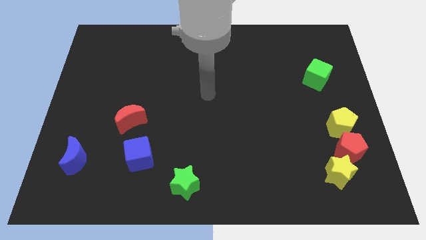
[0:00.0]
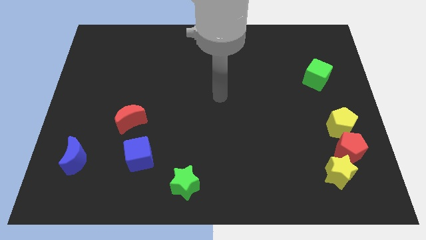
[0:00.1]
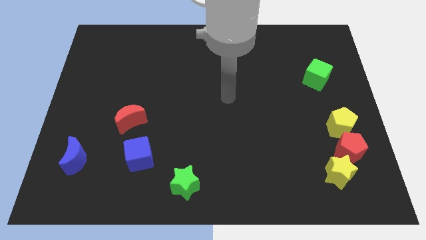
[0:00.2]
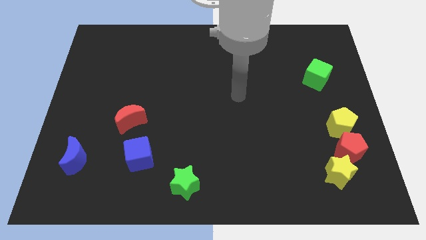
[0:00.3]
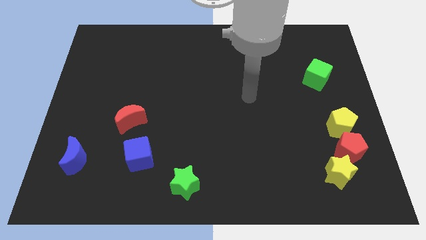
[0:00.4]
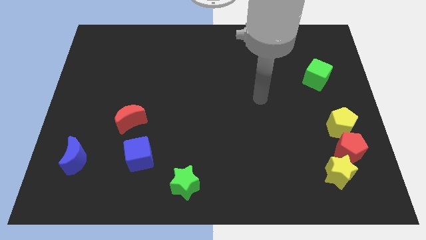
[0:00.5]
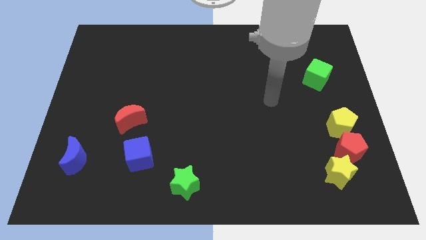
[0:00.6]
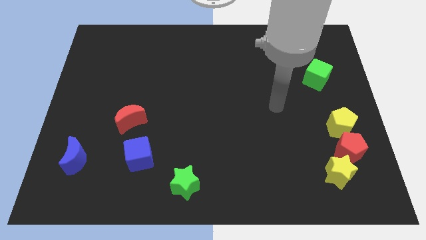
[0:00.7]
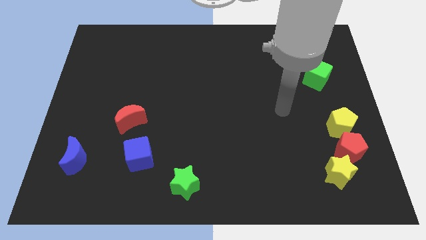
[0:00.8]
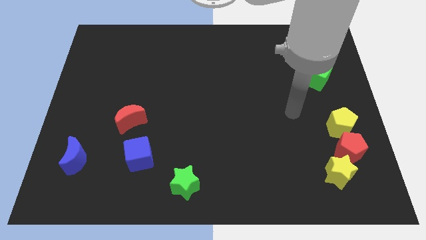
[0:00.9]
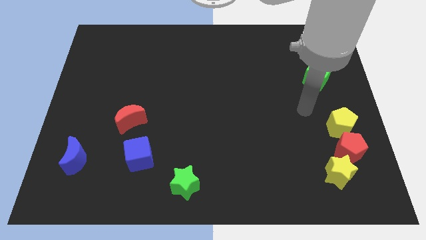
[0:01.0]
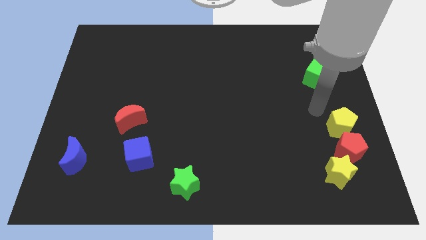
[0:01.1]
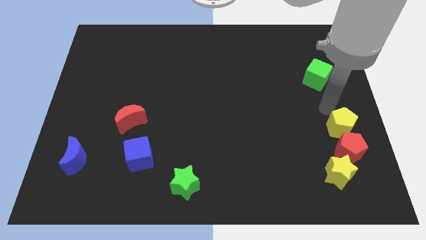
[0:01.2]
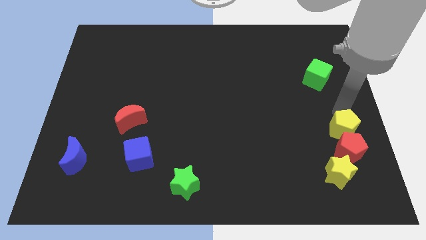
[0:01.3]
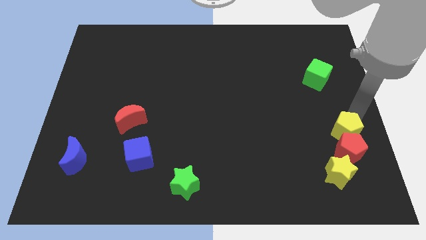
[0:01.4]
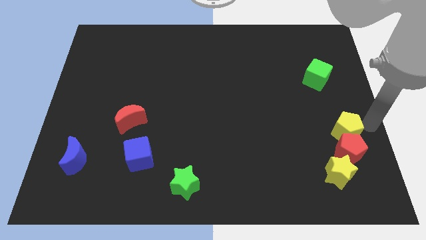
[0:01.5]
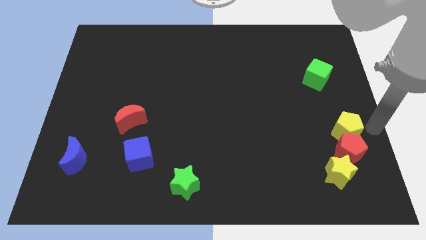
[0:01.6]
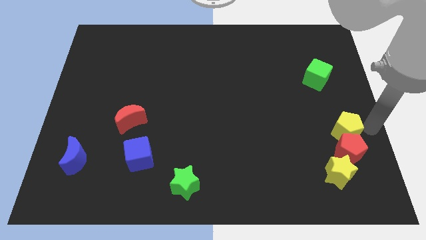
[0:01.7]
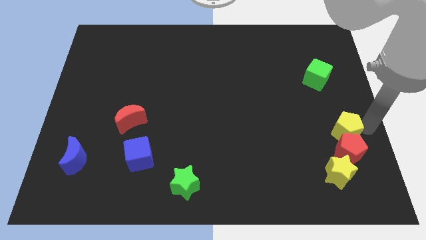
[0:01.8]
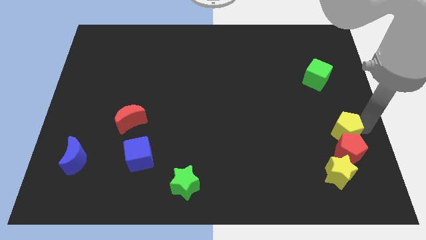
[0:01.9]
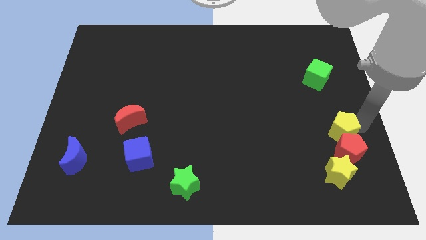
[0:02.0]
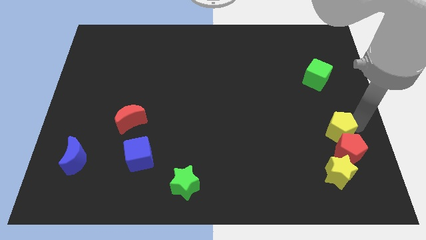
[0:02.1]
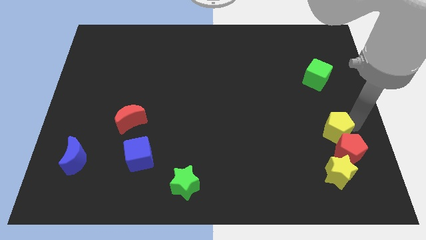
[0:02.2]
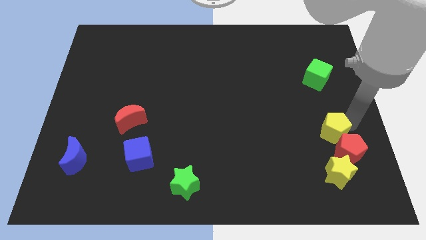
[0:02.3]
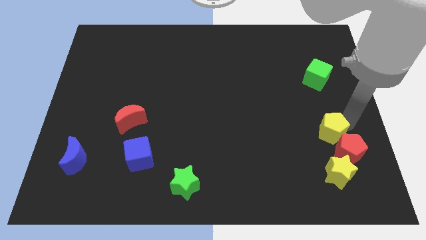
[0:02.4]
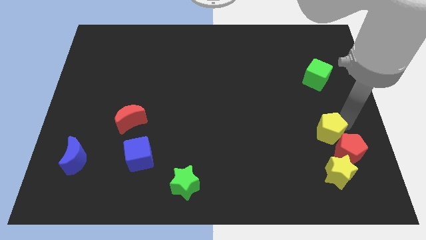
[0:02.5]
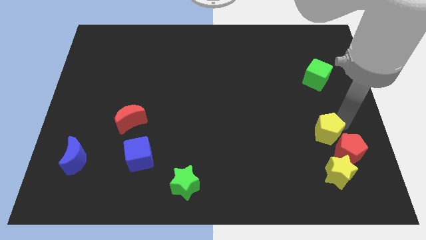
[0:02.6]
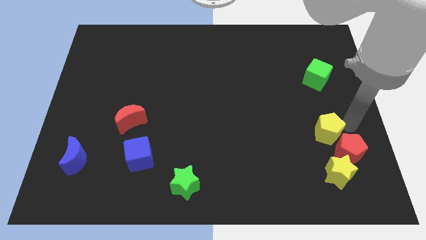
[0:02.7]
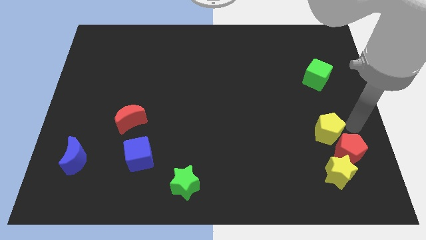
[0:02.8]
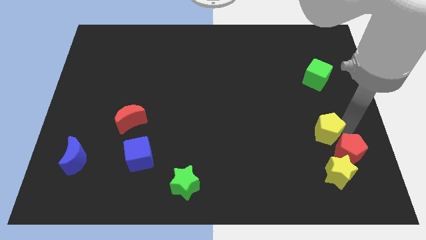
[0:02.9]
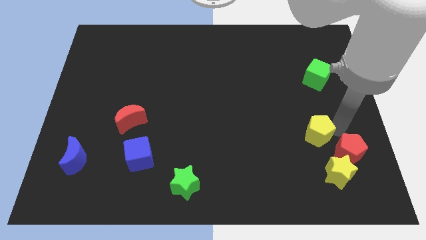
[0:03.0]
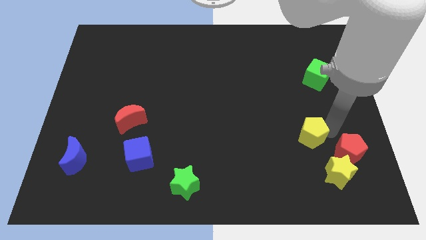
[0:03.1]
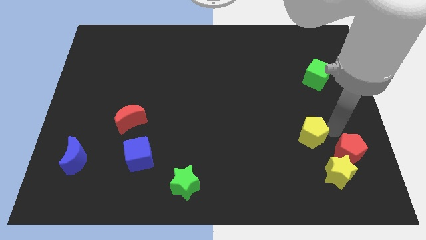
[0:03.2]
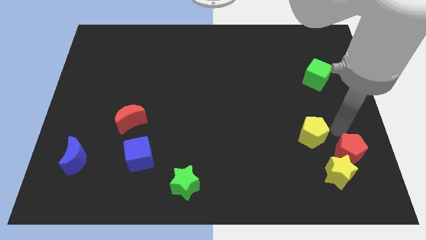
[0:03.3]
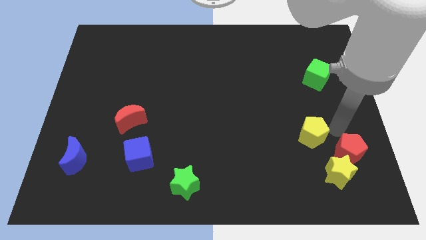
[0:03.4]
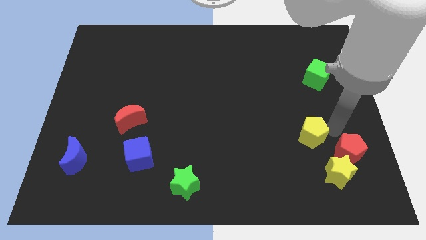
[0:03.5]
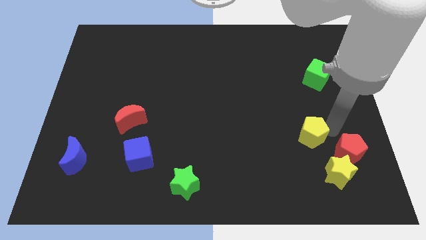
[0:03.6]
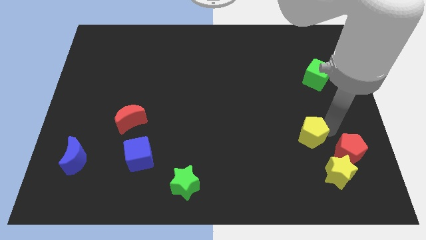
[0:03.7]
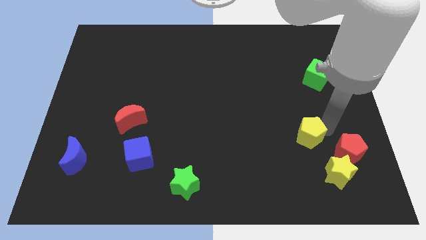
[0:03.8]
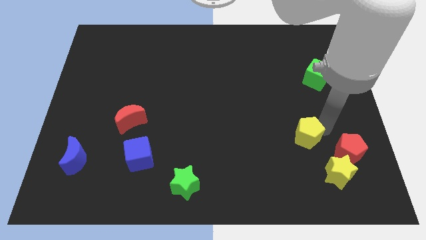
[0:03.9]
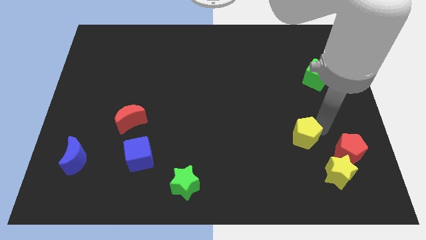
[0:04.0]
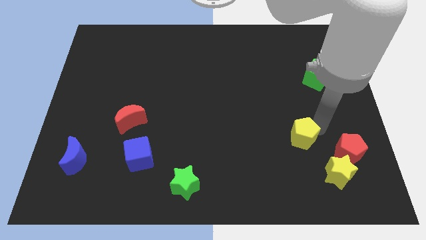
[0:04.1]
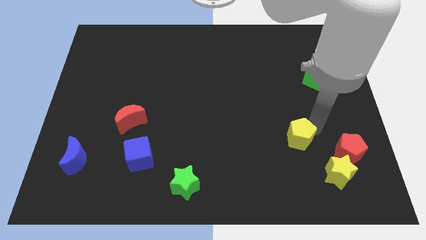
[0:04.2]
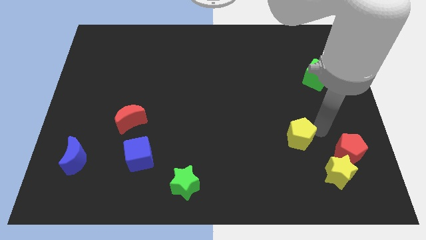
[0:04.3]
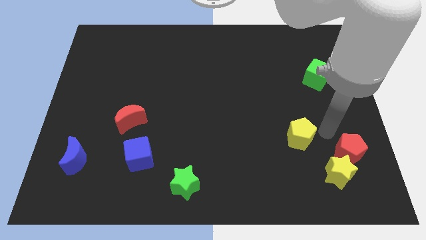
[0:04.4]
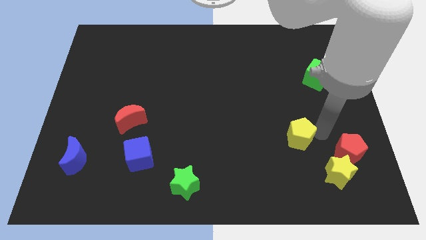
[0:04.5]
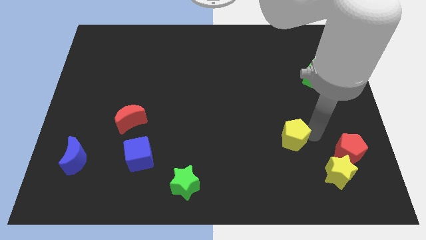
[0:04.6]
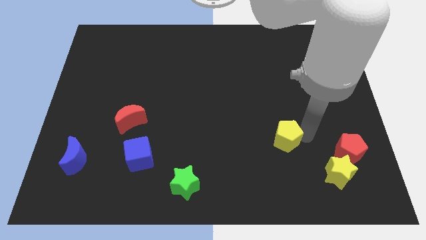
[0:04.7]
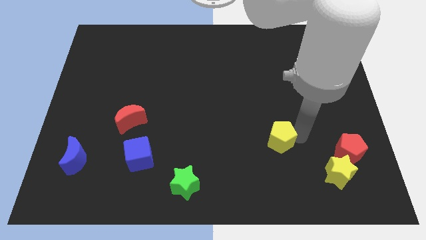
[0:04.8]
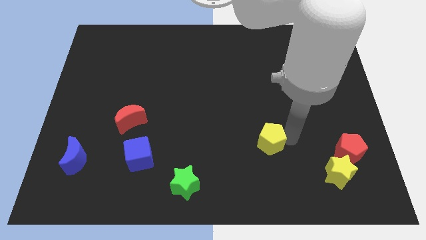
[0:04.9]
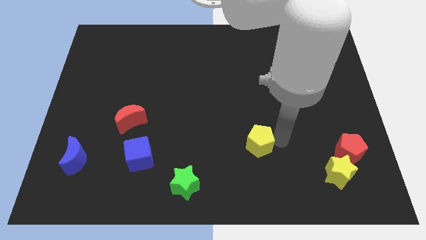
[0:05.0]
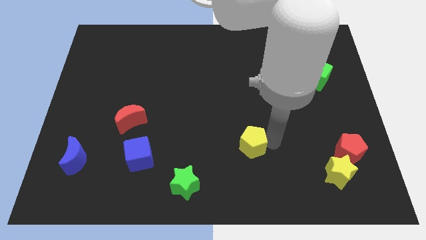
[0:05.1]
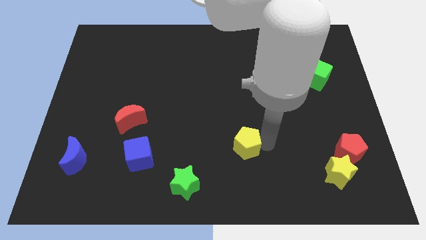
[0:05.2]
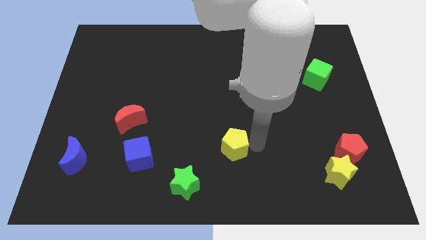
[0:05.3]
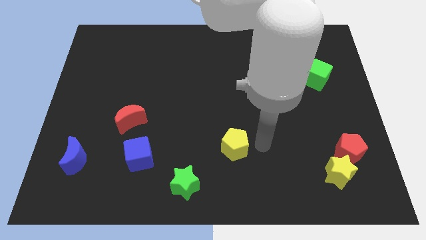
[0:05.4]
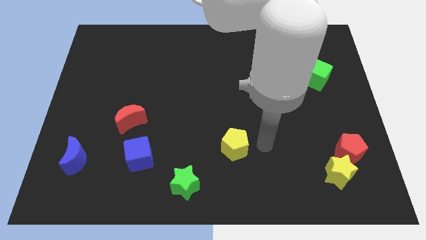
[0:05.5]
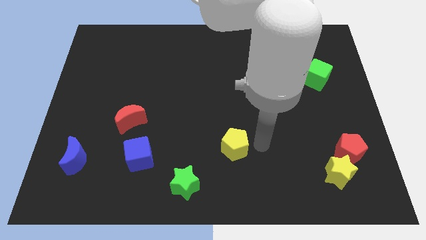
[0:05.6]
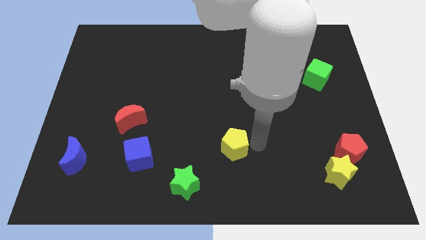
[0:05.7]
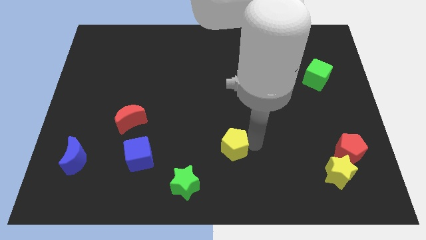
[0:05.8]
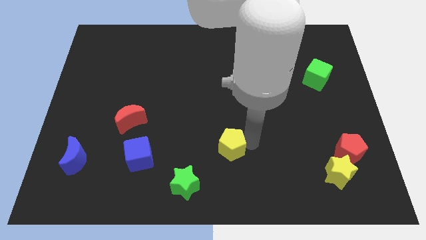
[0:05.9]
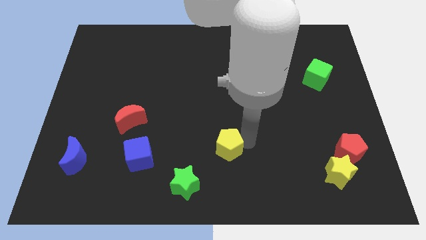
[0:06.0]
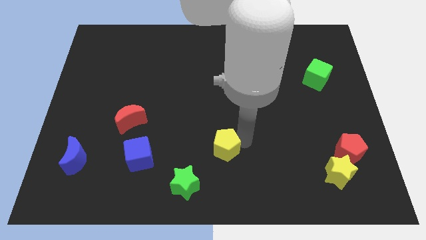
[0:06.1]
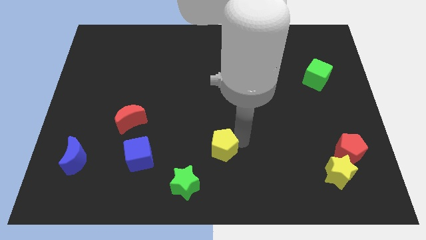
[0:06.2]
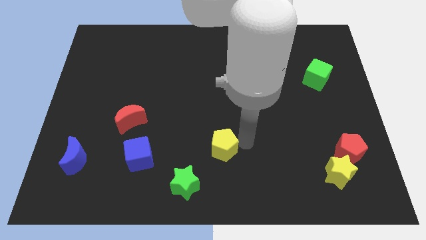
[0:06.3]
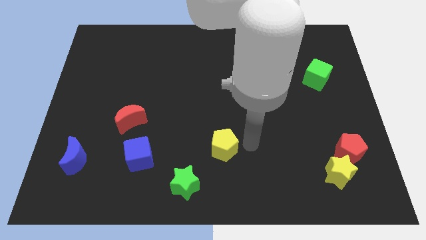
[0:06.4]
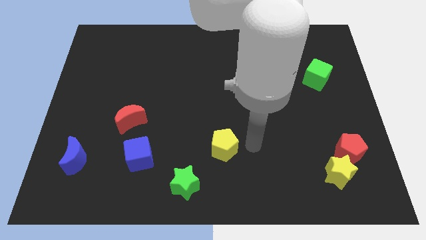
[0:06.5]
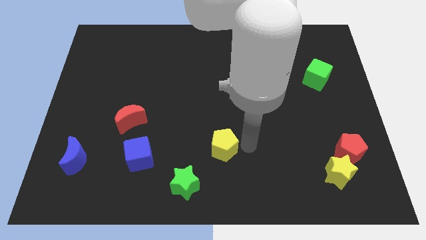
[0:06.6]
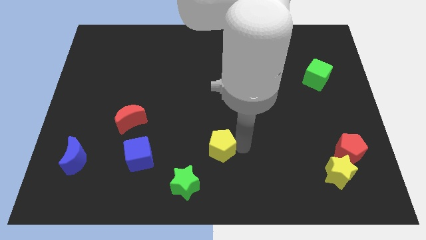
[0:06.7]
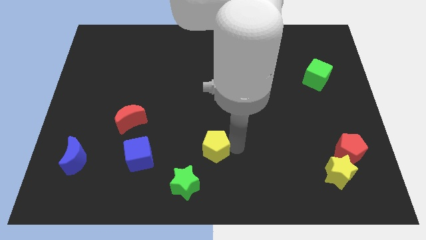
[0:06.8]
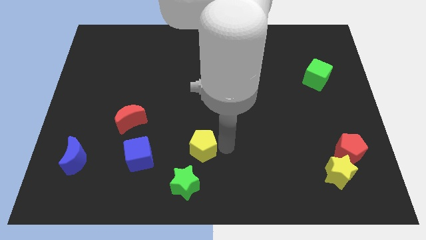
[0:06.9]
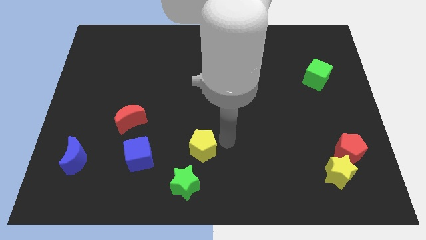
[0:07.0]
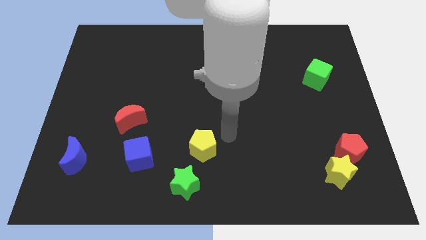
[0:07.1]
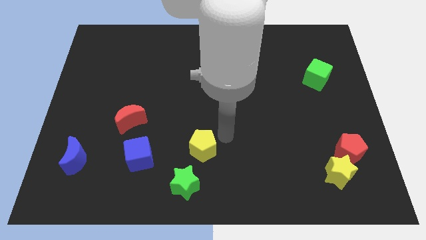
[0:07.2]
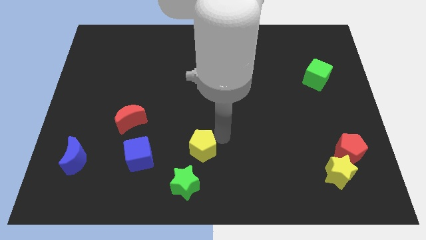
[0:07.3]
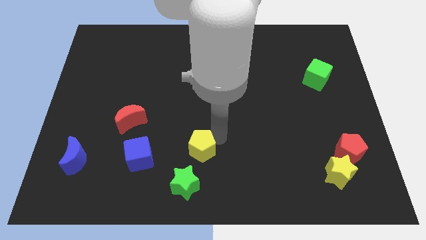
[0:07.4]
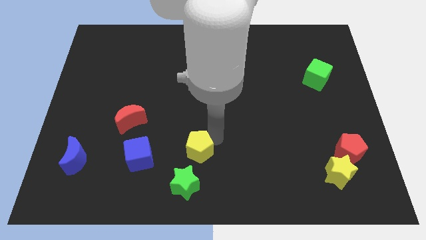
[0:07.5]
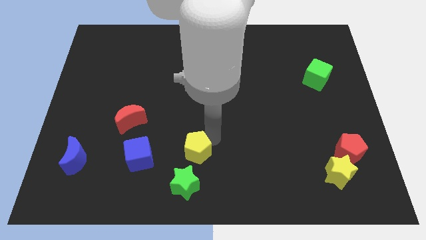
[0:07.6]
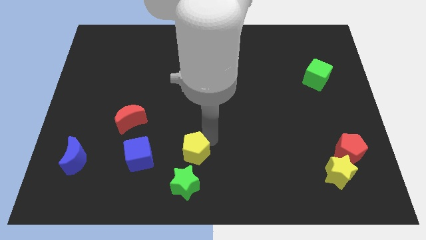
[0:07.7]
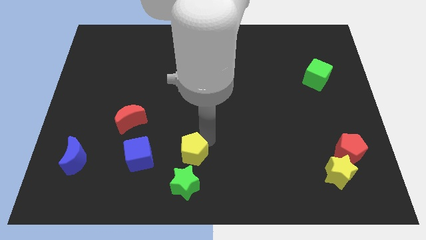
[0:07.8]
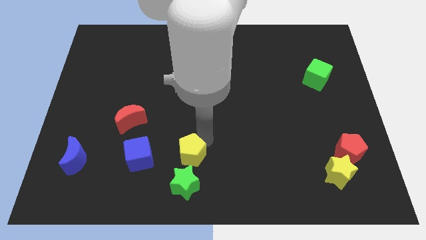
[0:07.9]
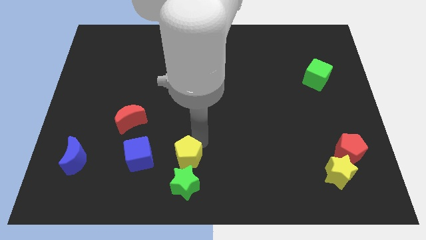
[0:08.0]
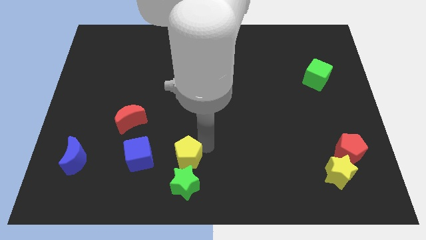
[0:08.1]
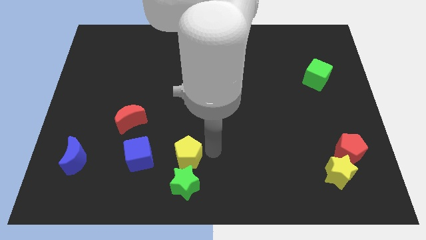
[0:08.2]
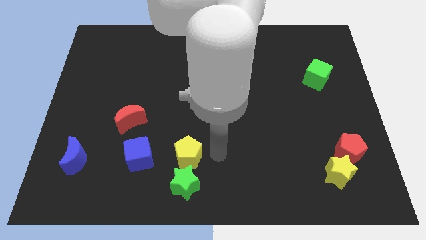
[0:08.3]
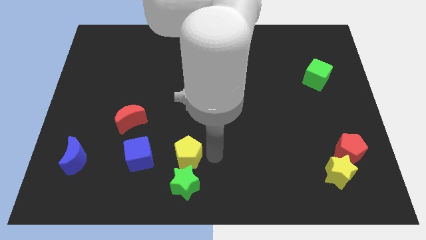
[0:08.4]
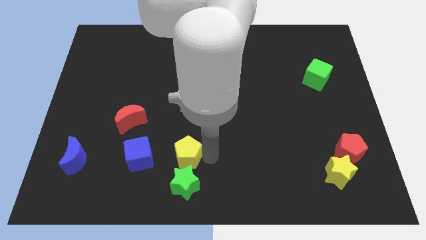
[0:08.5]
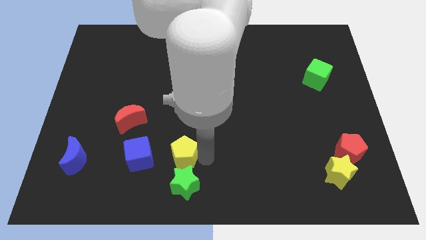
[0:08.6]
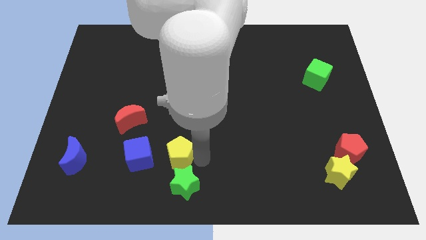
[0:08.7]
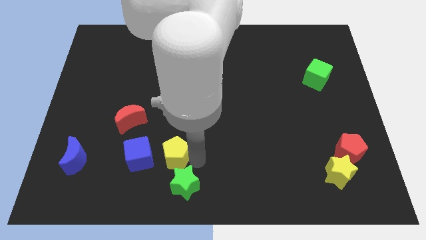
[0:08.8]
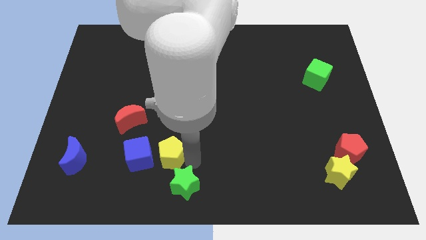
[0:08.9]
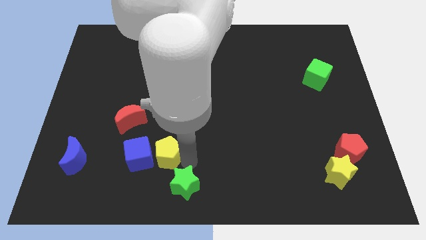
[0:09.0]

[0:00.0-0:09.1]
put the yellow pentagon towards the blue cube
